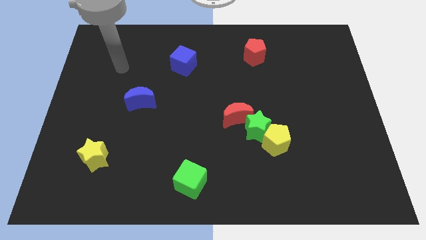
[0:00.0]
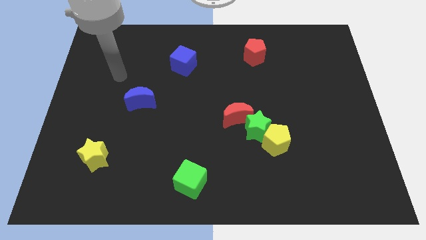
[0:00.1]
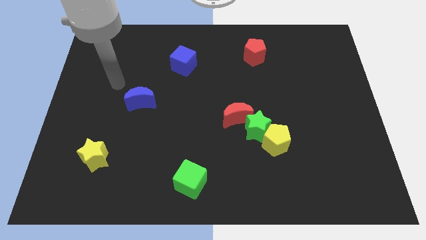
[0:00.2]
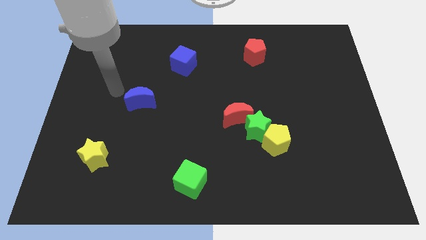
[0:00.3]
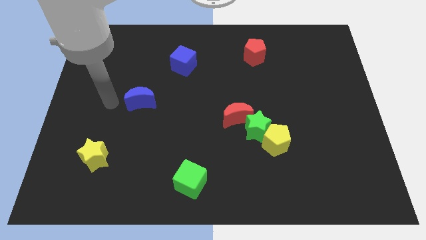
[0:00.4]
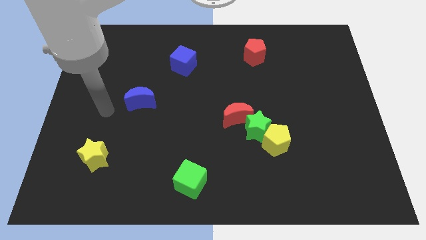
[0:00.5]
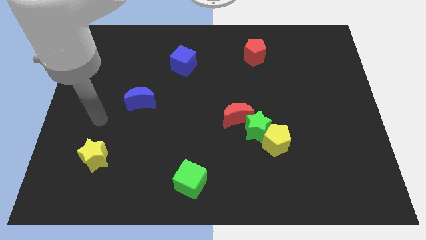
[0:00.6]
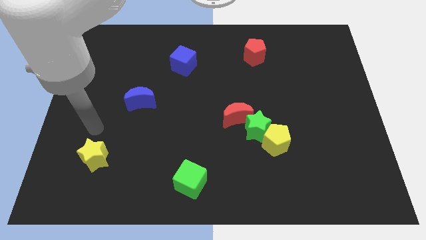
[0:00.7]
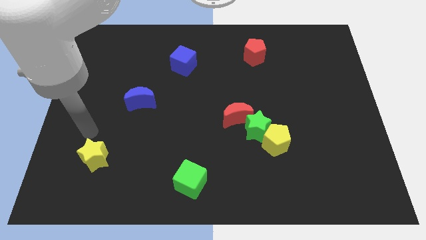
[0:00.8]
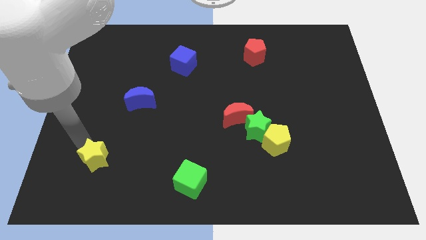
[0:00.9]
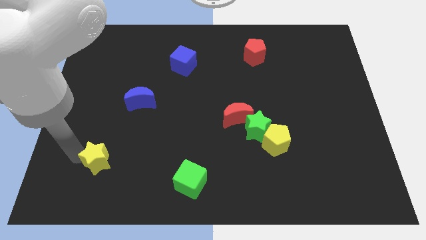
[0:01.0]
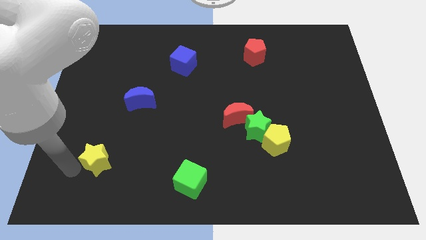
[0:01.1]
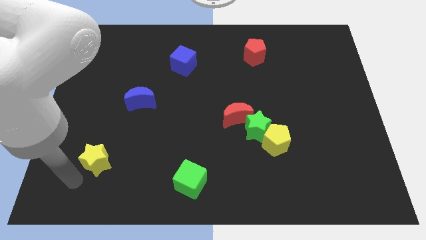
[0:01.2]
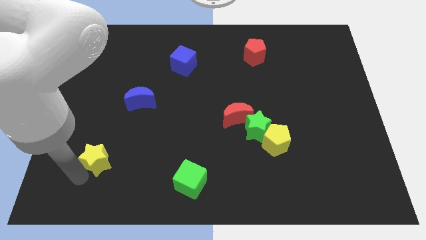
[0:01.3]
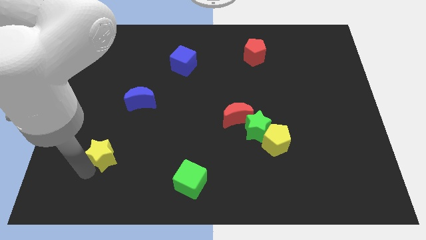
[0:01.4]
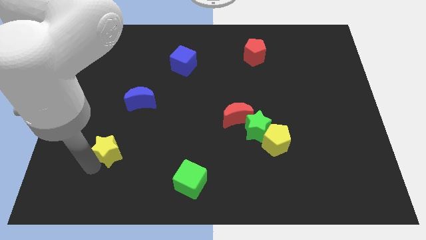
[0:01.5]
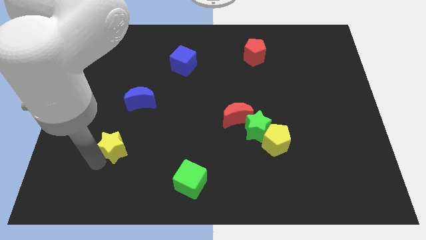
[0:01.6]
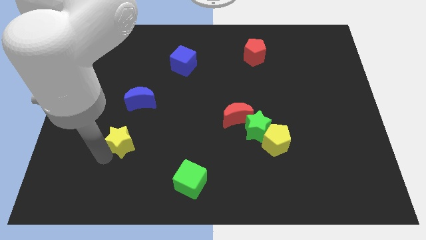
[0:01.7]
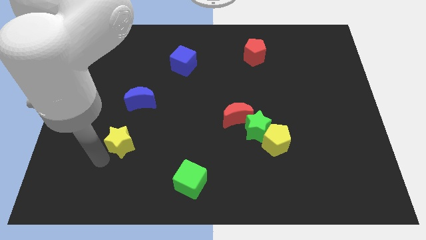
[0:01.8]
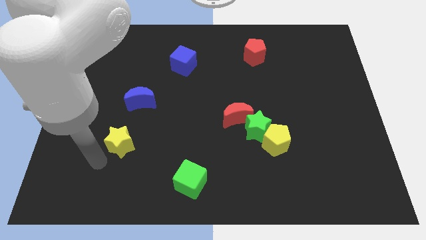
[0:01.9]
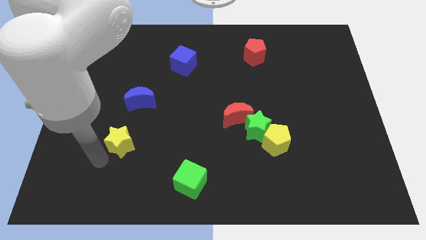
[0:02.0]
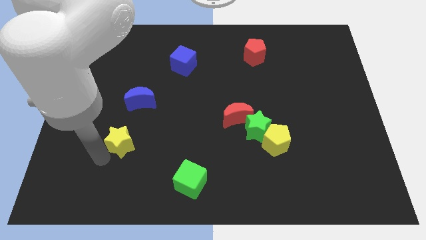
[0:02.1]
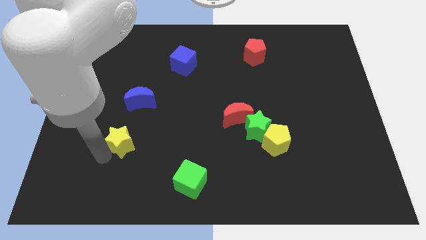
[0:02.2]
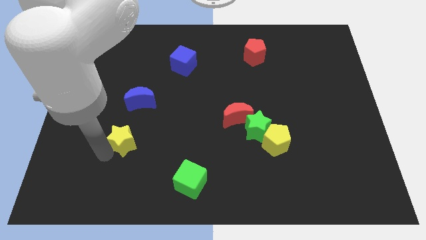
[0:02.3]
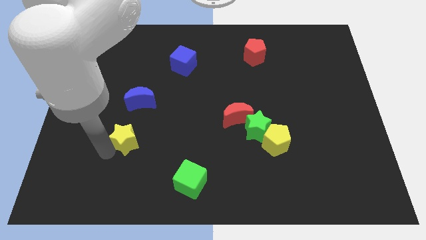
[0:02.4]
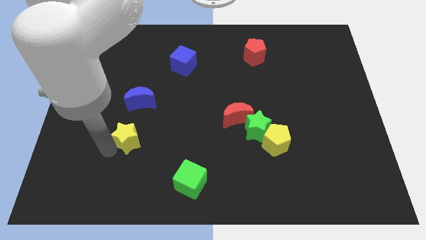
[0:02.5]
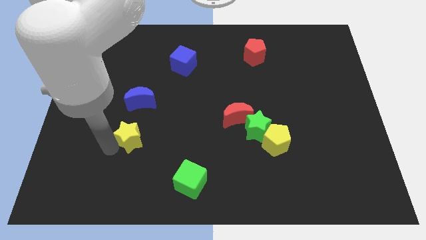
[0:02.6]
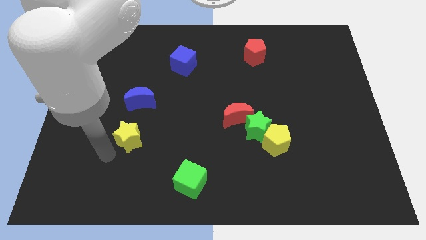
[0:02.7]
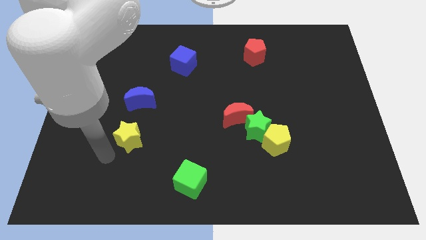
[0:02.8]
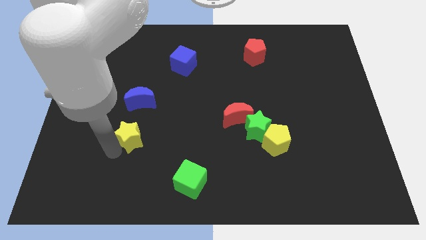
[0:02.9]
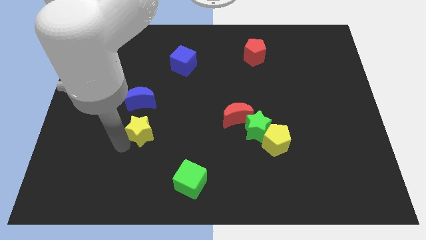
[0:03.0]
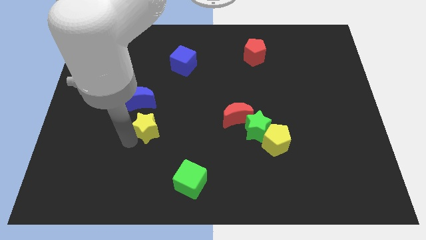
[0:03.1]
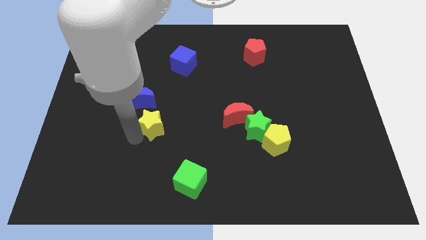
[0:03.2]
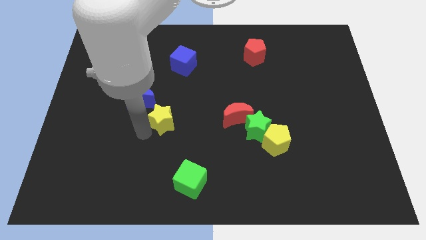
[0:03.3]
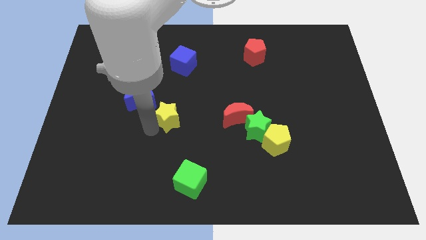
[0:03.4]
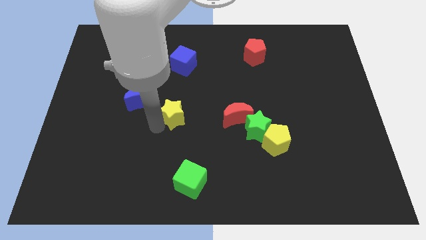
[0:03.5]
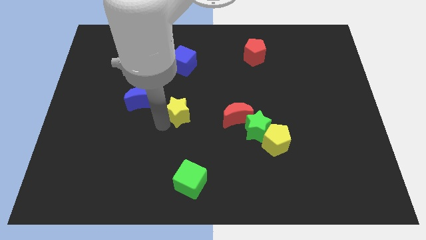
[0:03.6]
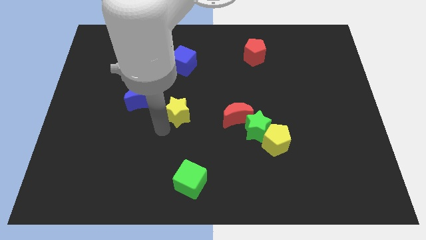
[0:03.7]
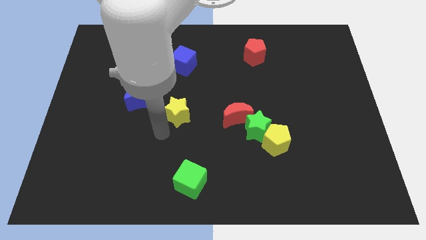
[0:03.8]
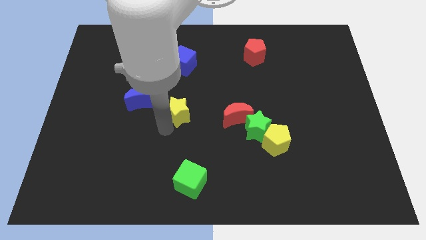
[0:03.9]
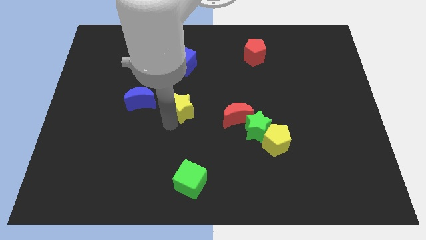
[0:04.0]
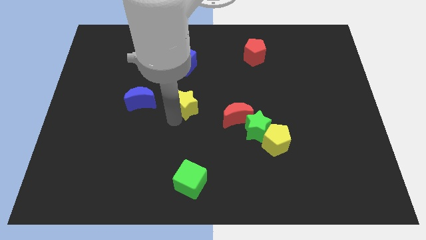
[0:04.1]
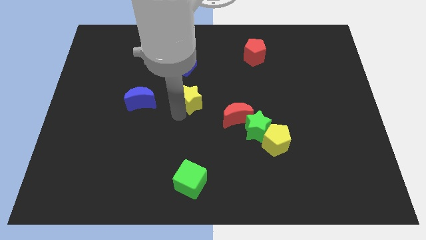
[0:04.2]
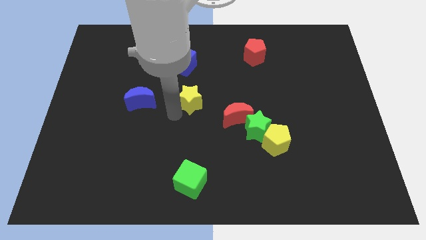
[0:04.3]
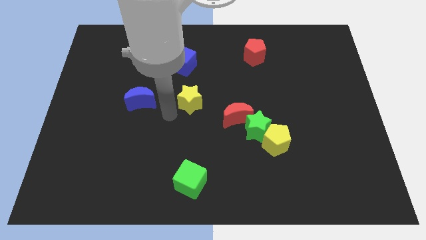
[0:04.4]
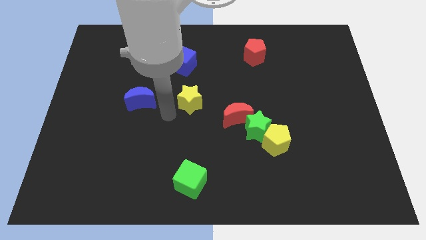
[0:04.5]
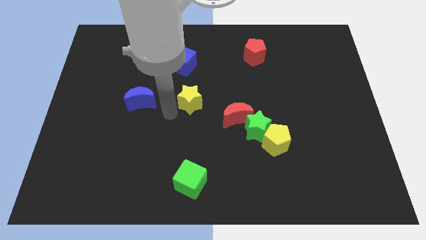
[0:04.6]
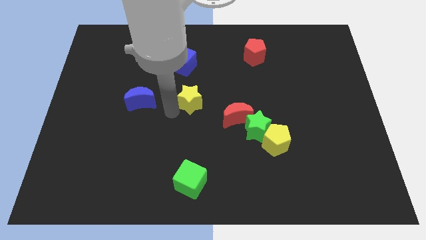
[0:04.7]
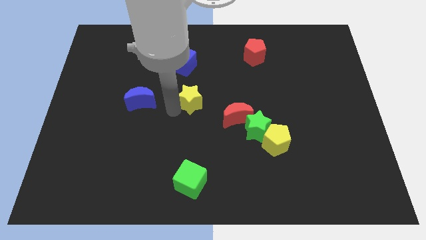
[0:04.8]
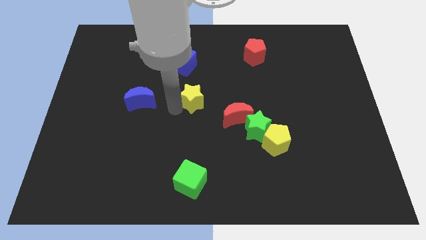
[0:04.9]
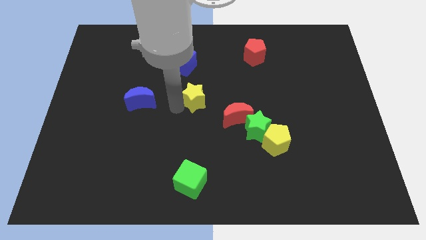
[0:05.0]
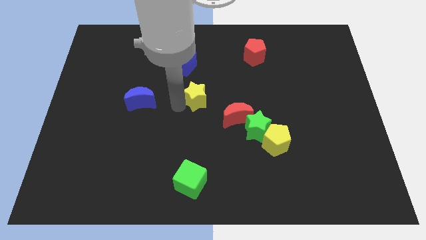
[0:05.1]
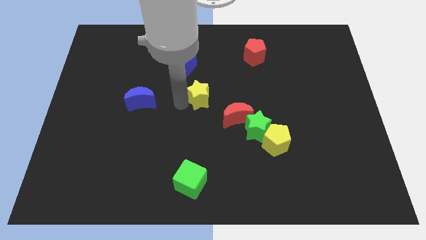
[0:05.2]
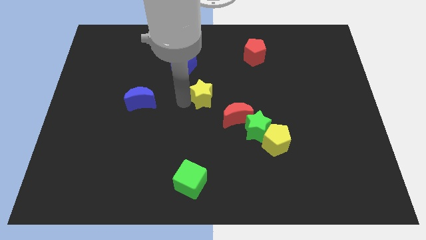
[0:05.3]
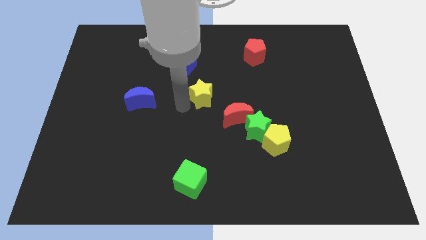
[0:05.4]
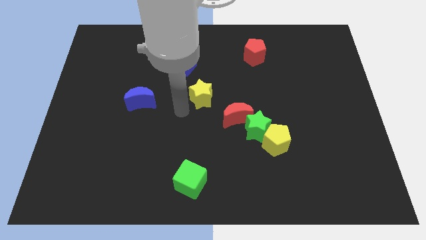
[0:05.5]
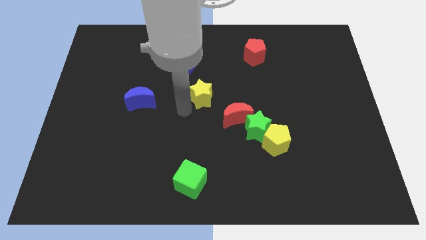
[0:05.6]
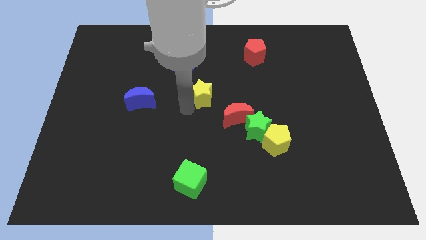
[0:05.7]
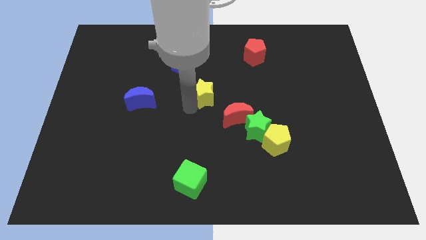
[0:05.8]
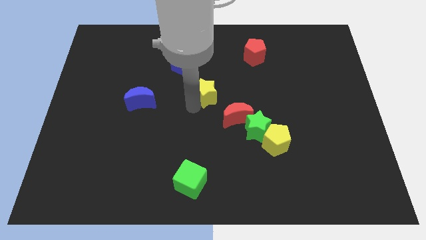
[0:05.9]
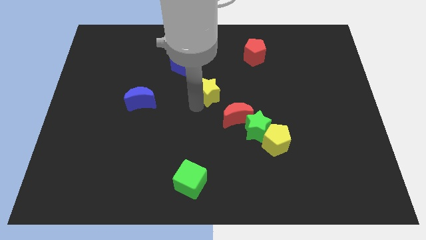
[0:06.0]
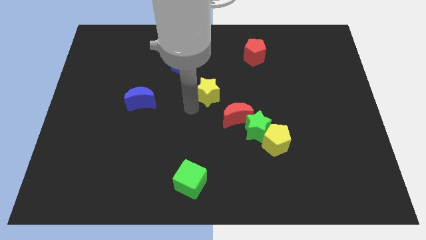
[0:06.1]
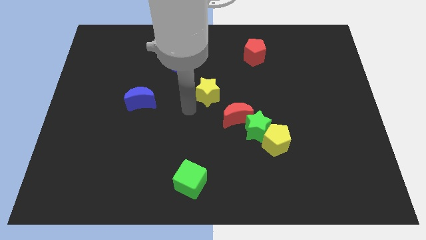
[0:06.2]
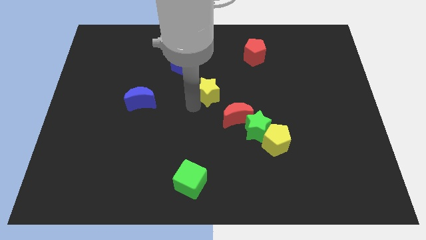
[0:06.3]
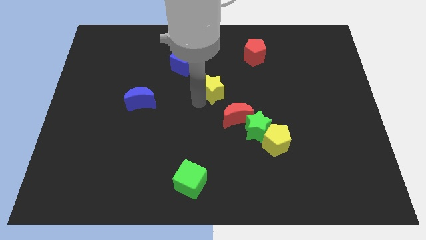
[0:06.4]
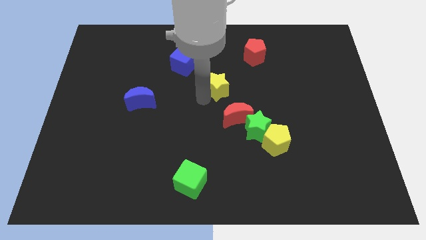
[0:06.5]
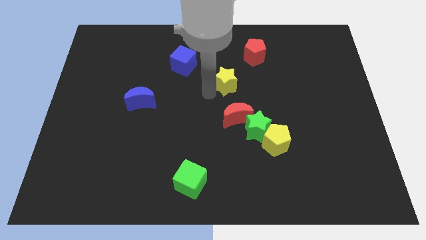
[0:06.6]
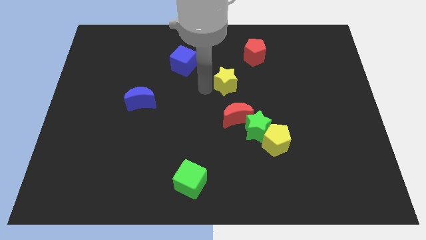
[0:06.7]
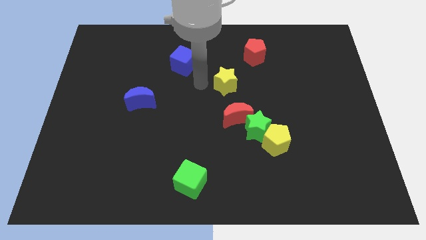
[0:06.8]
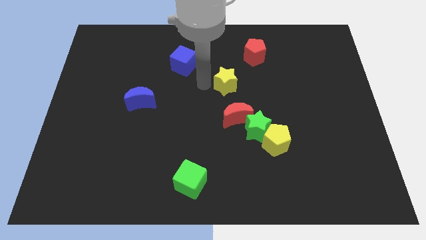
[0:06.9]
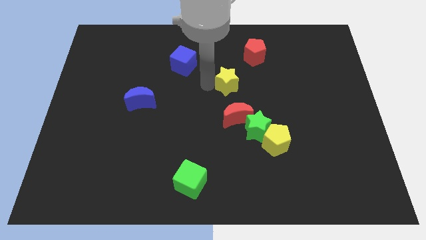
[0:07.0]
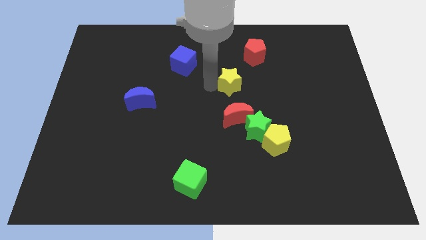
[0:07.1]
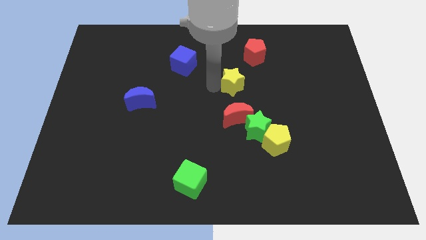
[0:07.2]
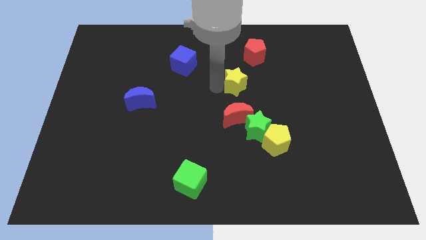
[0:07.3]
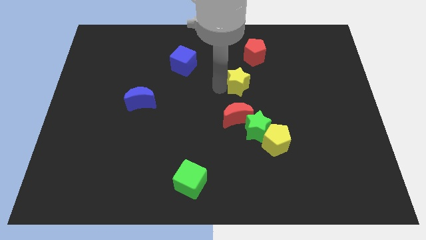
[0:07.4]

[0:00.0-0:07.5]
slide the yellow star below the red pentagon
